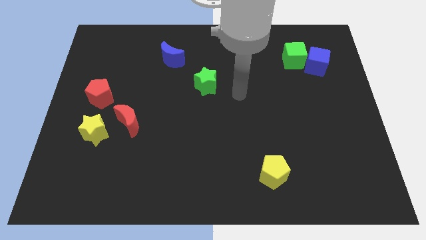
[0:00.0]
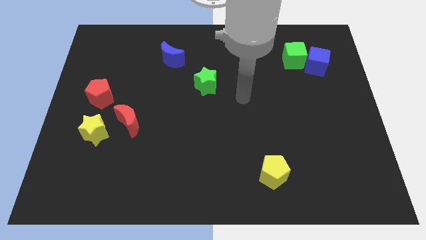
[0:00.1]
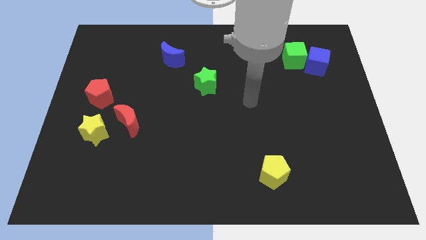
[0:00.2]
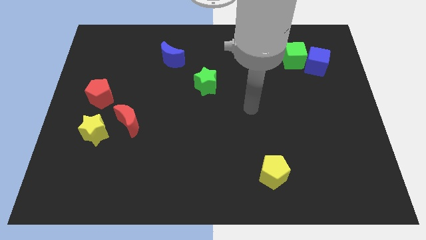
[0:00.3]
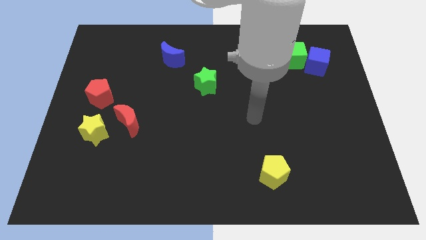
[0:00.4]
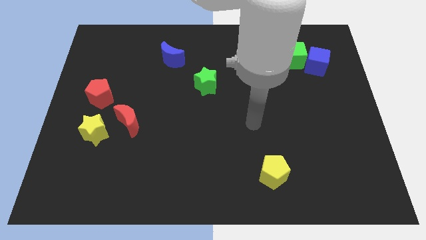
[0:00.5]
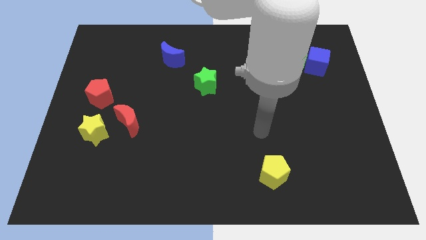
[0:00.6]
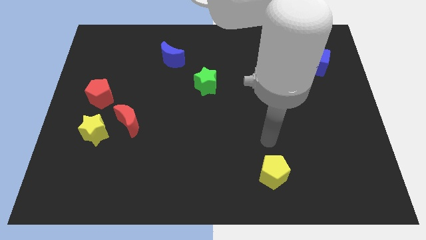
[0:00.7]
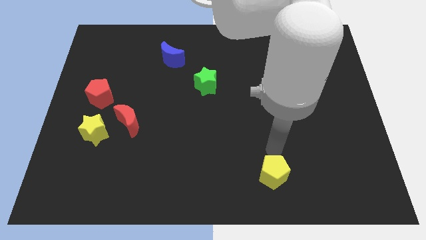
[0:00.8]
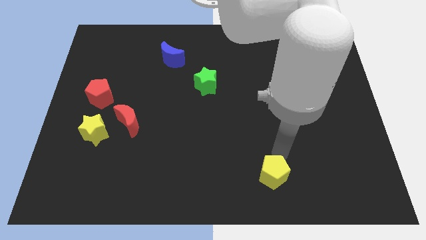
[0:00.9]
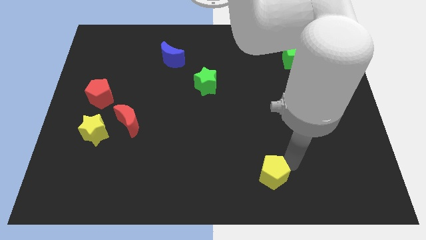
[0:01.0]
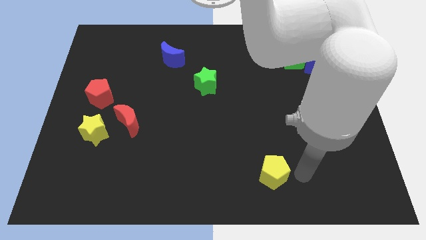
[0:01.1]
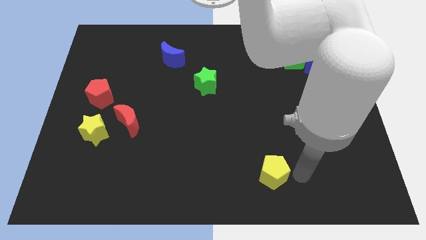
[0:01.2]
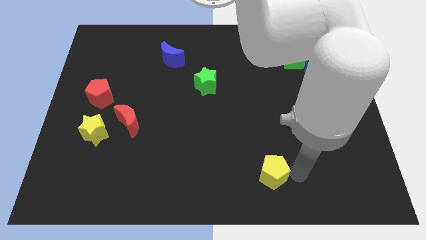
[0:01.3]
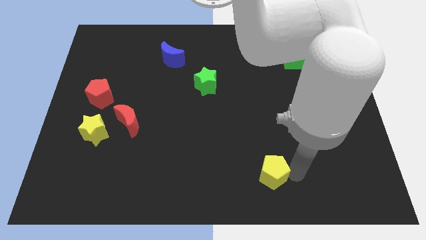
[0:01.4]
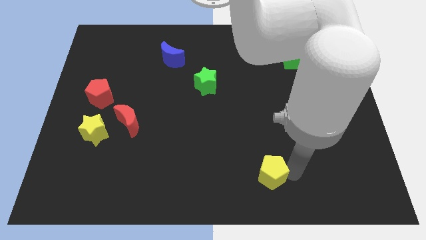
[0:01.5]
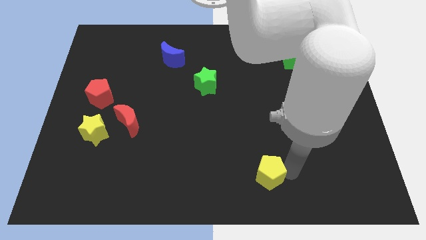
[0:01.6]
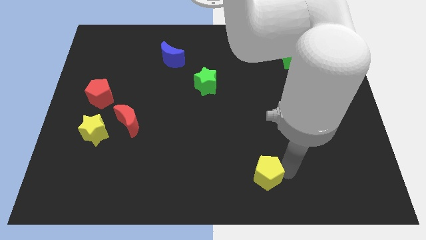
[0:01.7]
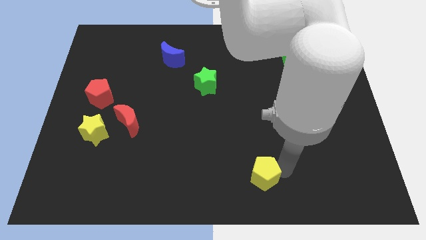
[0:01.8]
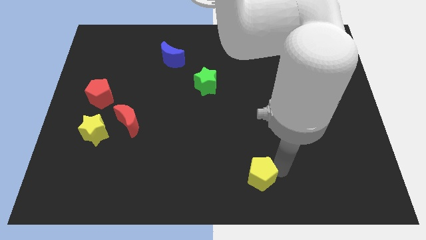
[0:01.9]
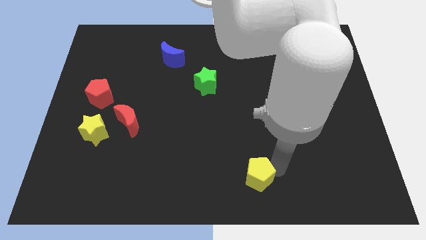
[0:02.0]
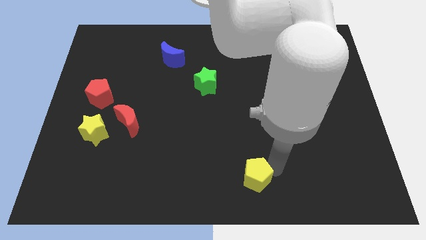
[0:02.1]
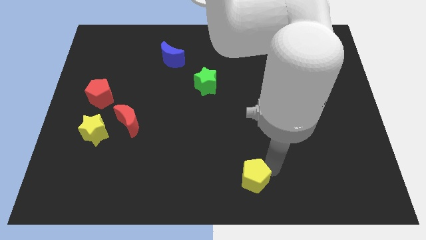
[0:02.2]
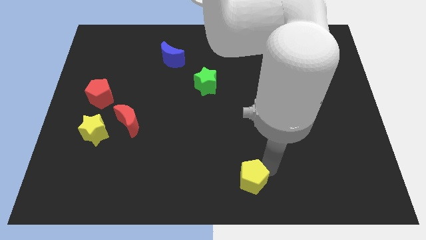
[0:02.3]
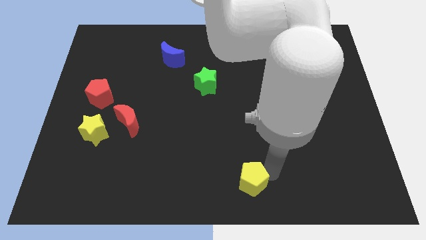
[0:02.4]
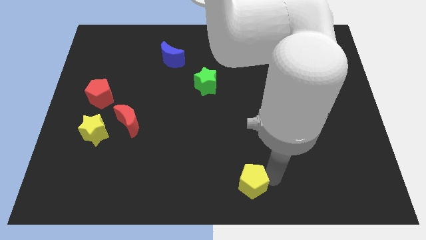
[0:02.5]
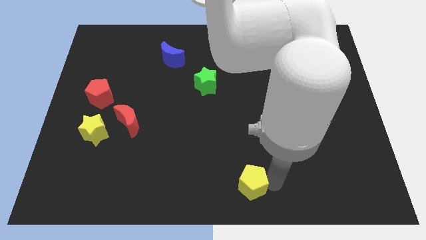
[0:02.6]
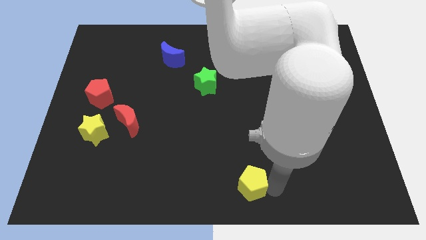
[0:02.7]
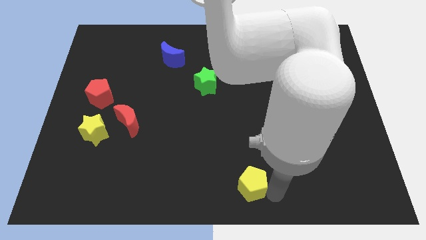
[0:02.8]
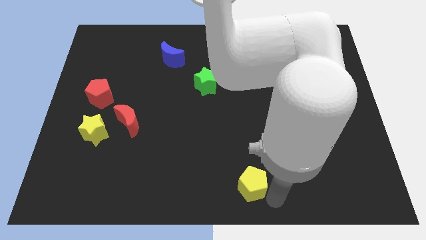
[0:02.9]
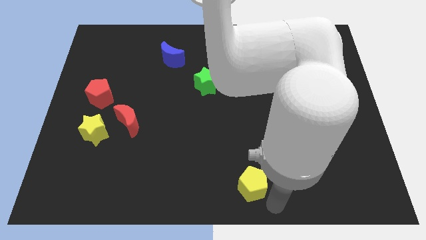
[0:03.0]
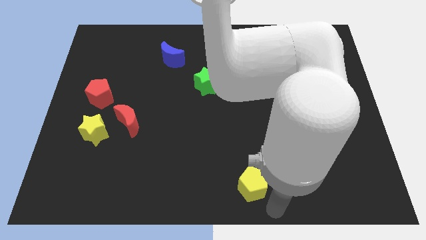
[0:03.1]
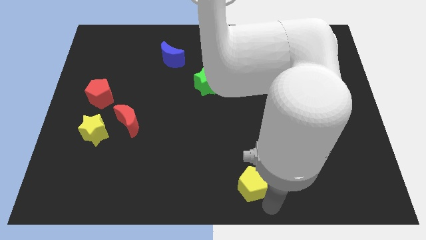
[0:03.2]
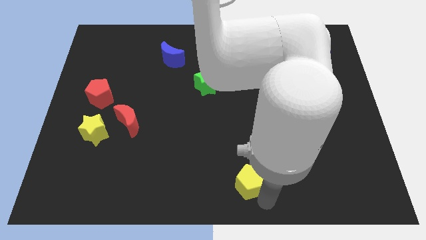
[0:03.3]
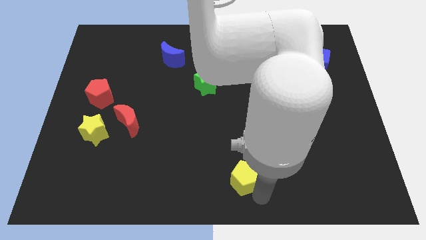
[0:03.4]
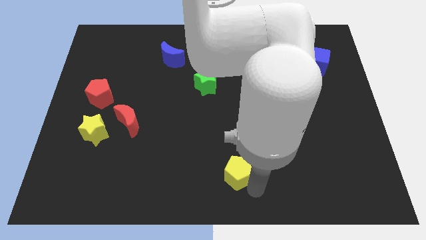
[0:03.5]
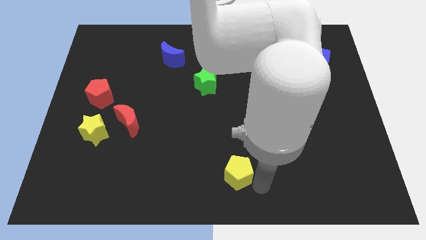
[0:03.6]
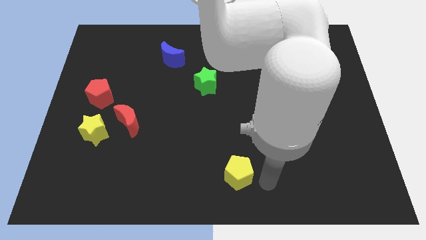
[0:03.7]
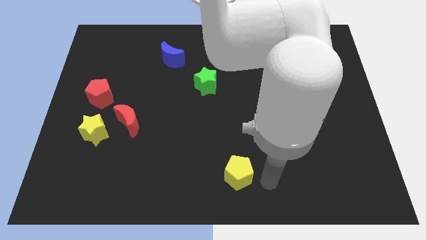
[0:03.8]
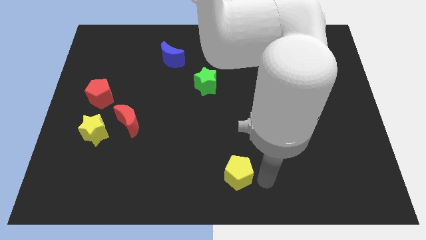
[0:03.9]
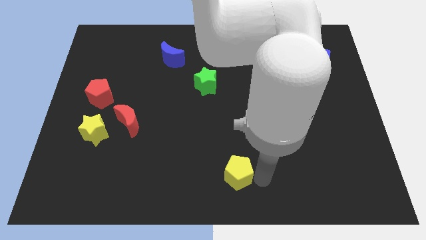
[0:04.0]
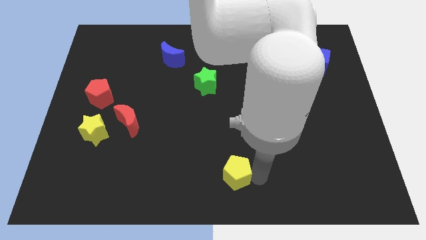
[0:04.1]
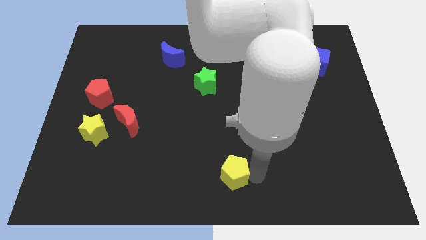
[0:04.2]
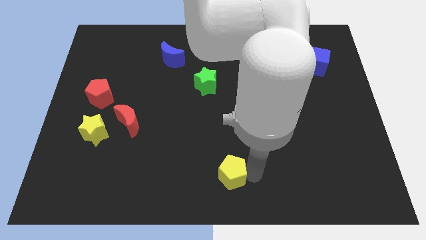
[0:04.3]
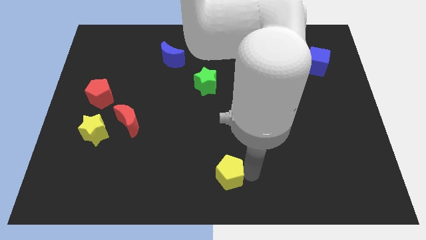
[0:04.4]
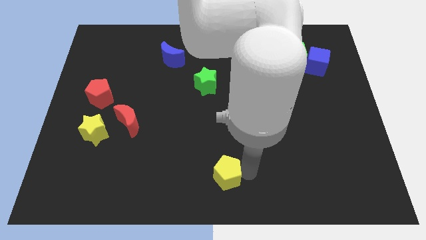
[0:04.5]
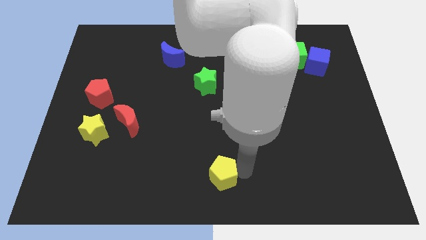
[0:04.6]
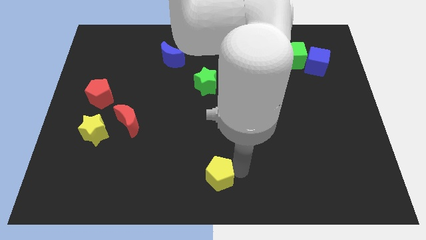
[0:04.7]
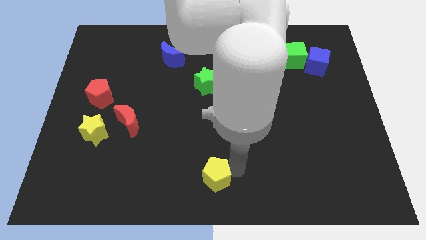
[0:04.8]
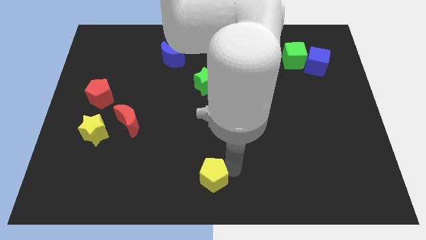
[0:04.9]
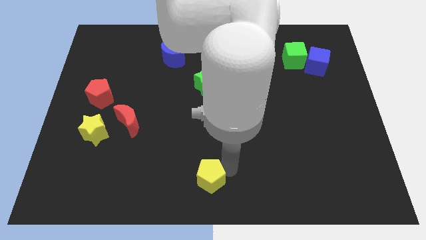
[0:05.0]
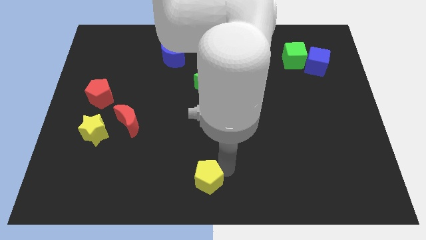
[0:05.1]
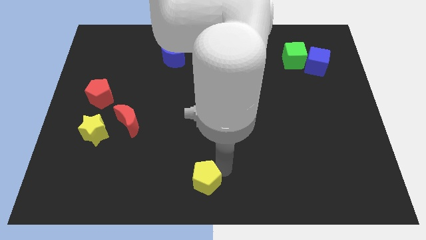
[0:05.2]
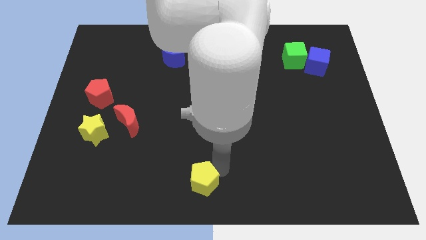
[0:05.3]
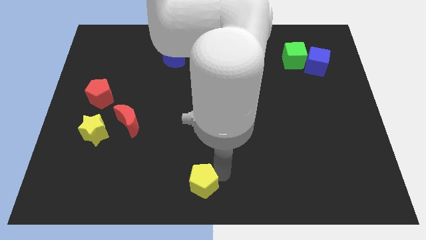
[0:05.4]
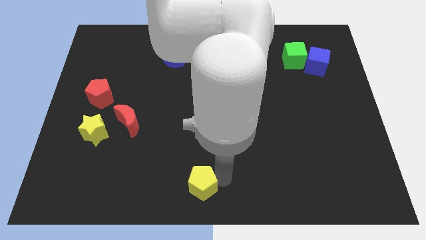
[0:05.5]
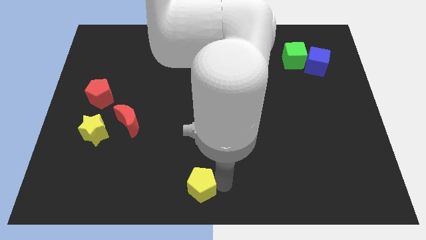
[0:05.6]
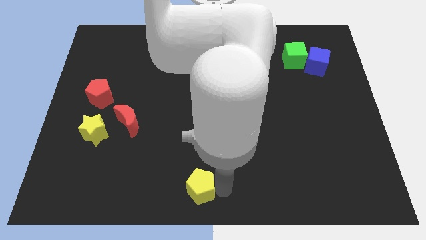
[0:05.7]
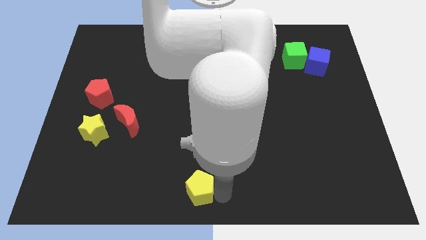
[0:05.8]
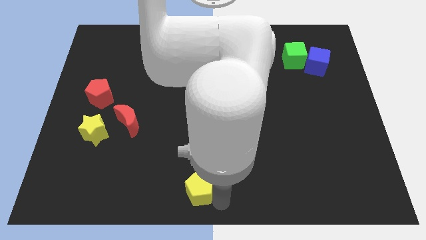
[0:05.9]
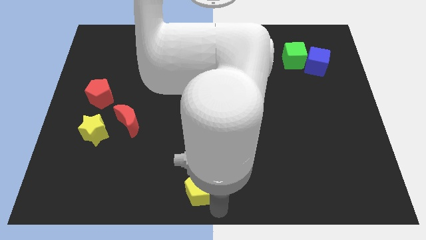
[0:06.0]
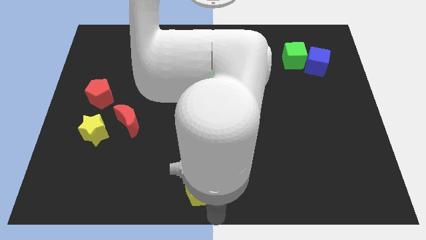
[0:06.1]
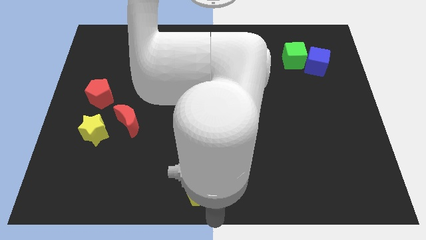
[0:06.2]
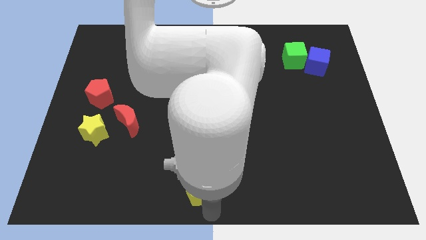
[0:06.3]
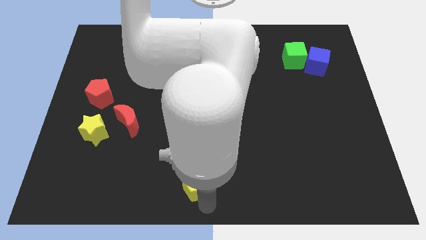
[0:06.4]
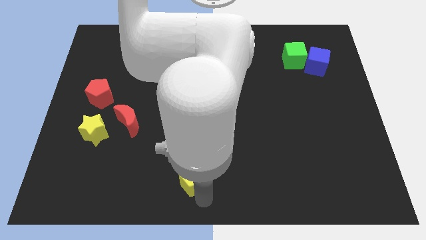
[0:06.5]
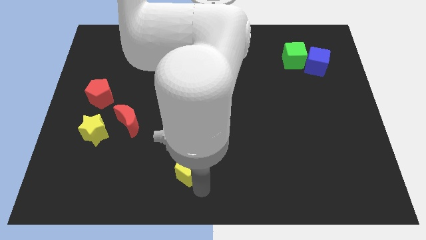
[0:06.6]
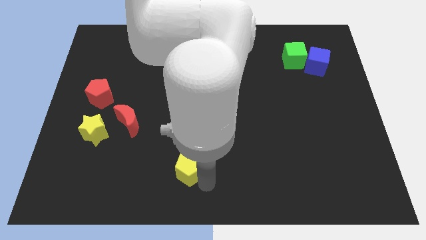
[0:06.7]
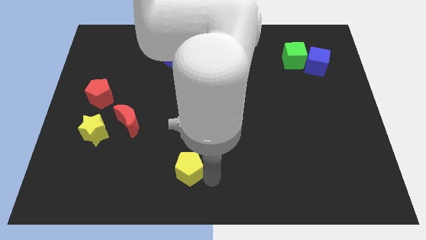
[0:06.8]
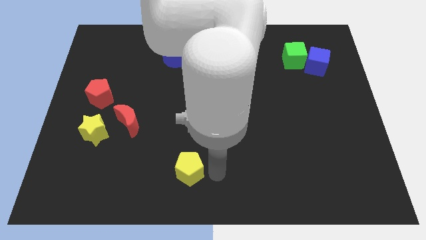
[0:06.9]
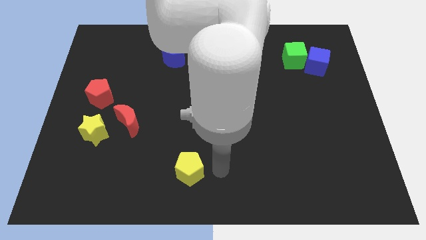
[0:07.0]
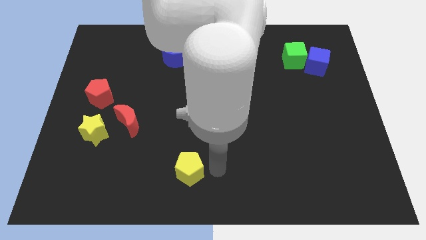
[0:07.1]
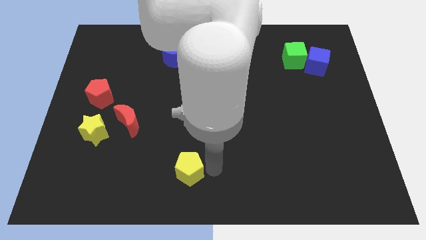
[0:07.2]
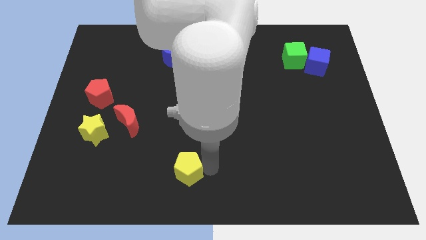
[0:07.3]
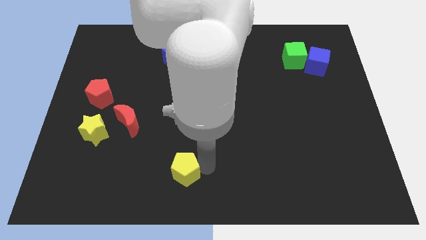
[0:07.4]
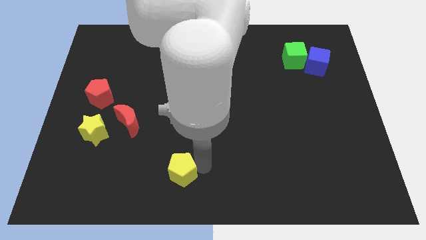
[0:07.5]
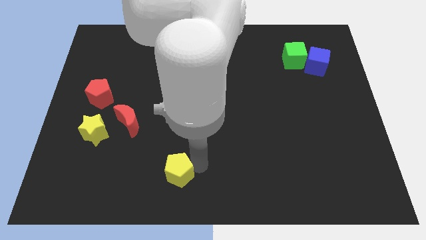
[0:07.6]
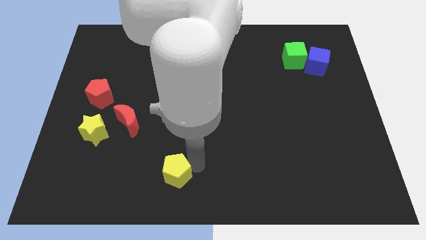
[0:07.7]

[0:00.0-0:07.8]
slide the yellow pentagon to the left
